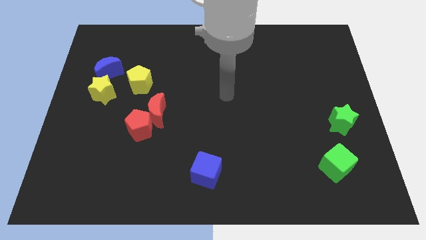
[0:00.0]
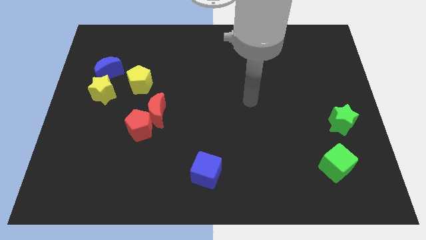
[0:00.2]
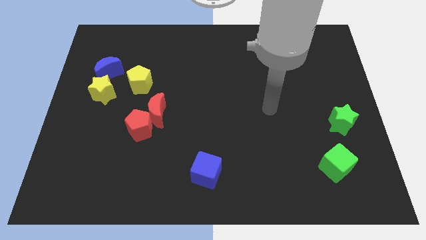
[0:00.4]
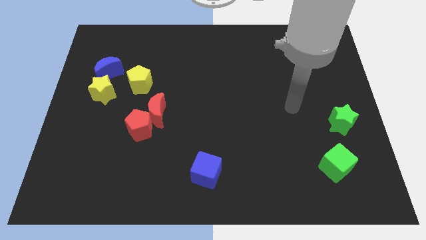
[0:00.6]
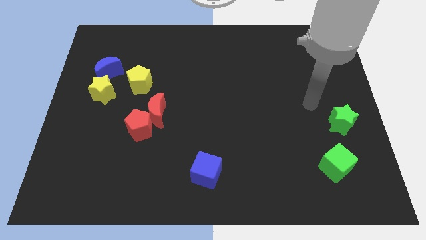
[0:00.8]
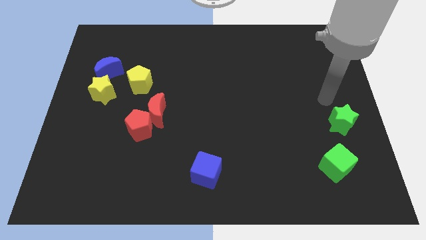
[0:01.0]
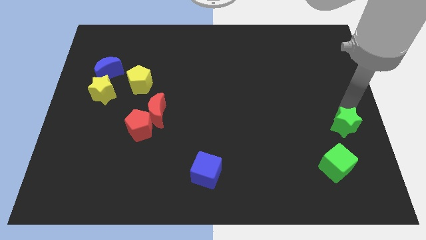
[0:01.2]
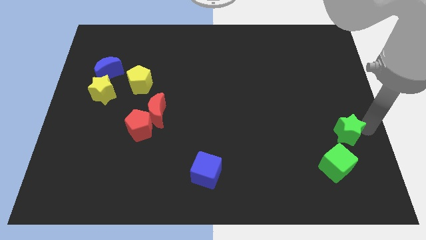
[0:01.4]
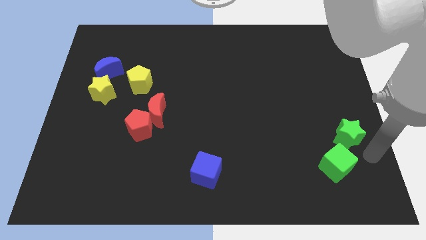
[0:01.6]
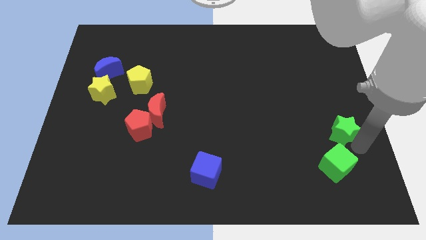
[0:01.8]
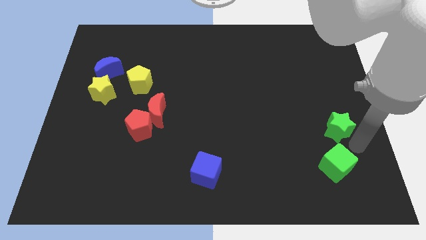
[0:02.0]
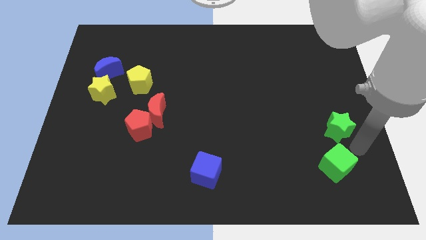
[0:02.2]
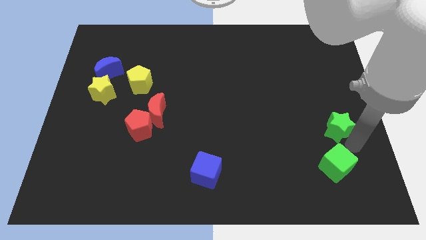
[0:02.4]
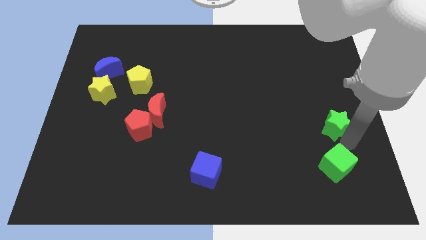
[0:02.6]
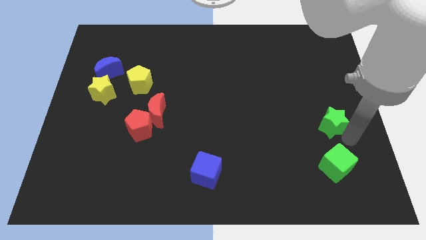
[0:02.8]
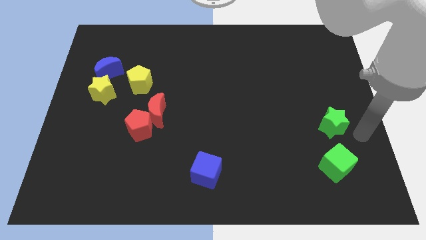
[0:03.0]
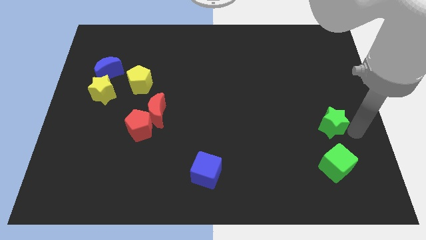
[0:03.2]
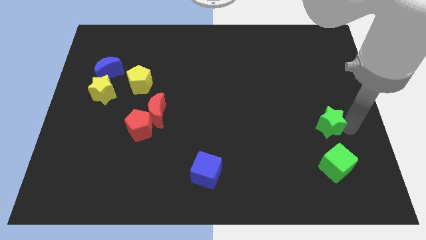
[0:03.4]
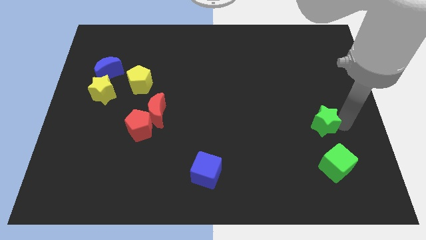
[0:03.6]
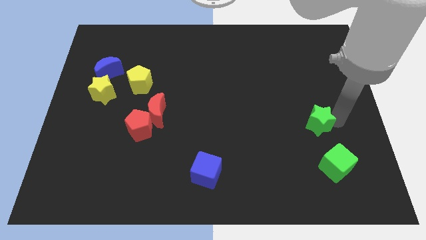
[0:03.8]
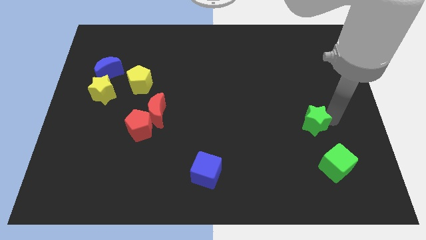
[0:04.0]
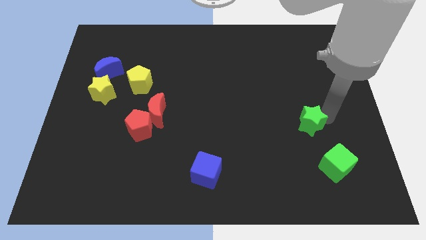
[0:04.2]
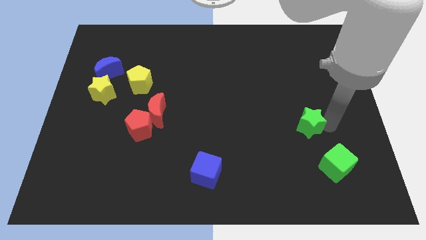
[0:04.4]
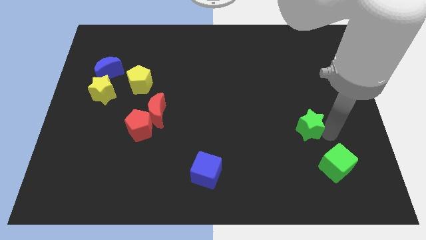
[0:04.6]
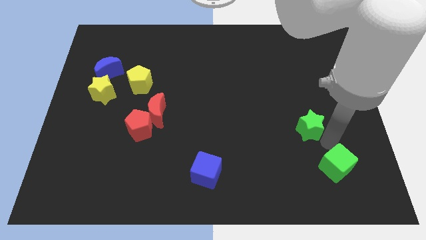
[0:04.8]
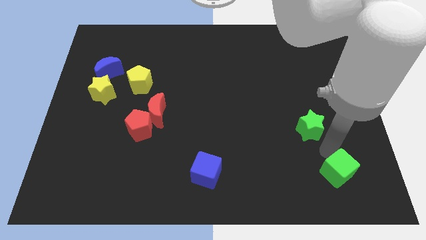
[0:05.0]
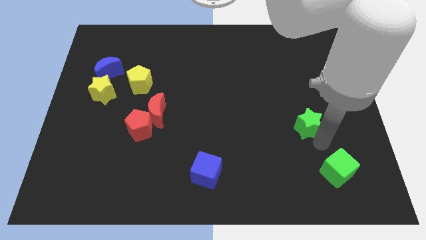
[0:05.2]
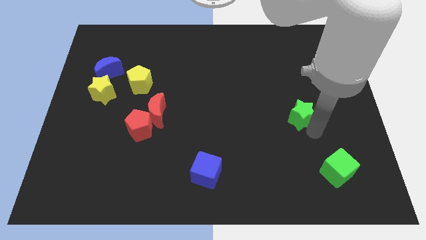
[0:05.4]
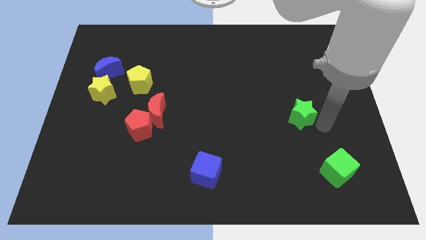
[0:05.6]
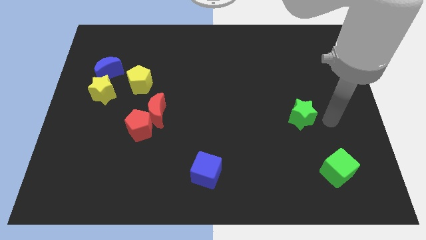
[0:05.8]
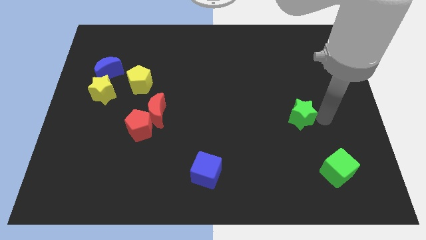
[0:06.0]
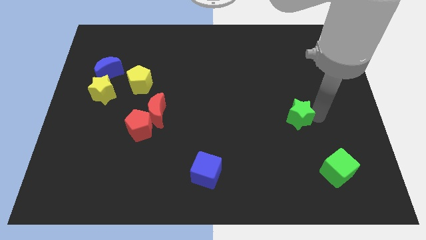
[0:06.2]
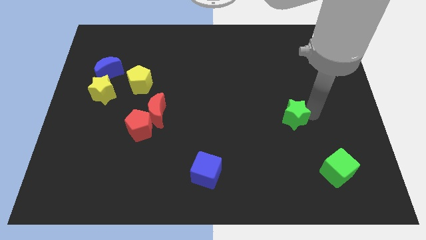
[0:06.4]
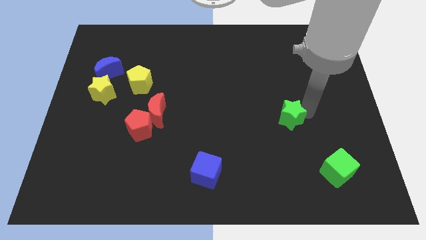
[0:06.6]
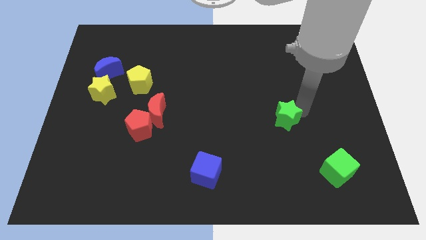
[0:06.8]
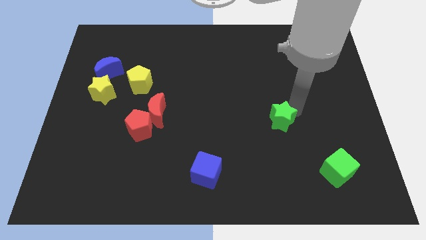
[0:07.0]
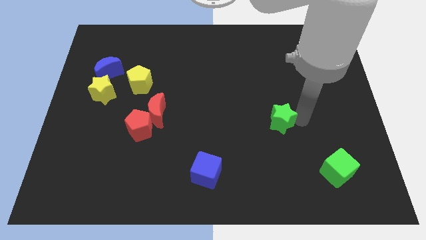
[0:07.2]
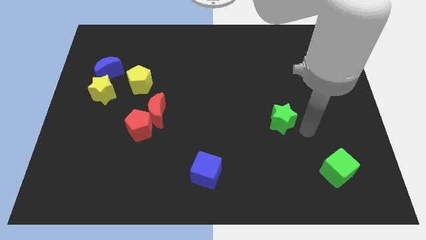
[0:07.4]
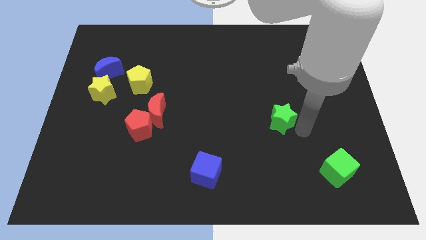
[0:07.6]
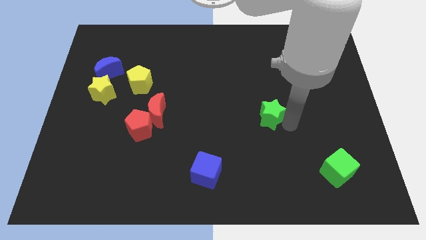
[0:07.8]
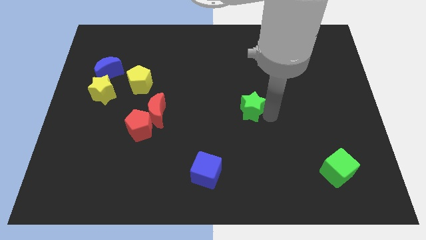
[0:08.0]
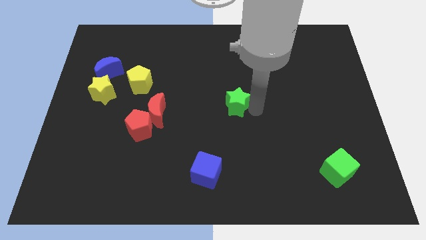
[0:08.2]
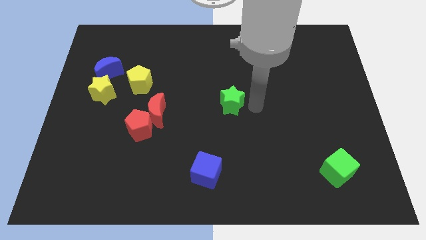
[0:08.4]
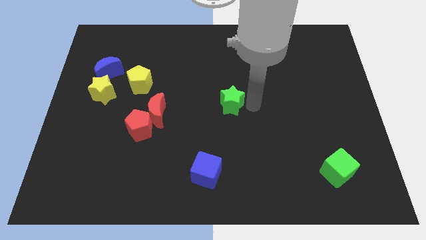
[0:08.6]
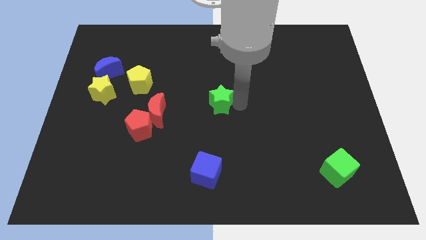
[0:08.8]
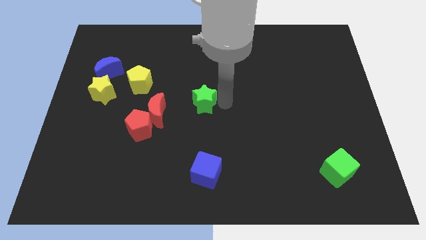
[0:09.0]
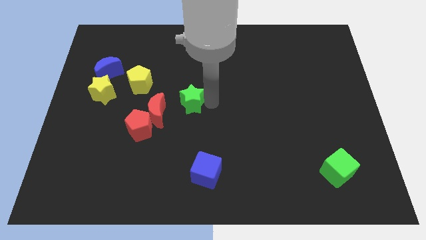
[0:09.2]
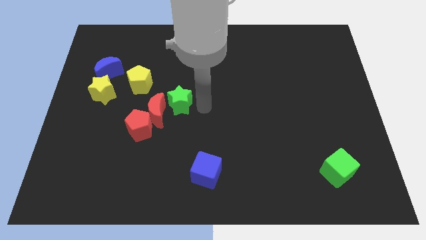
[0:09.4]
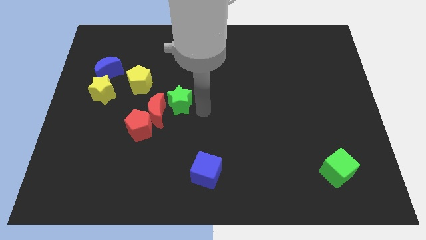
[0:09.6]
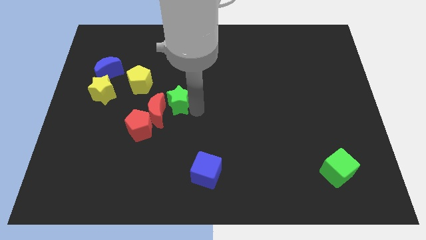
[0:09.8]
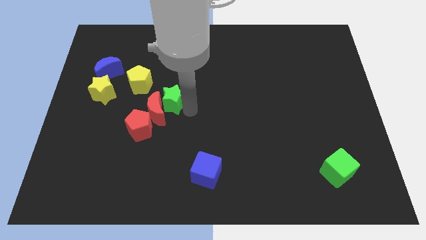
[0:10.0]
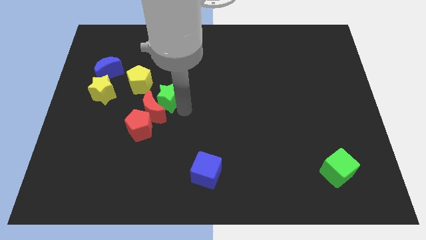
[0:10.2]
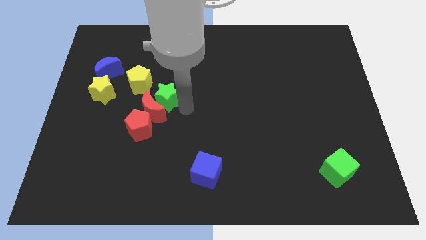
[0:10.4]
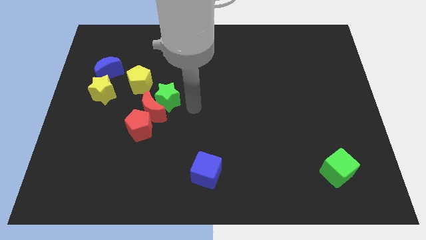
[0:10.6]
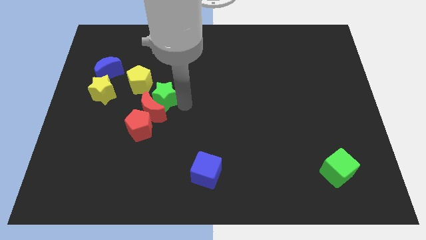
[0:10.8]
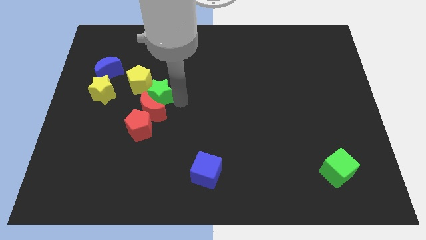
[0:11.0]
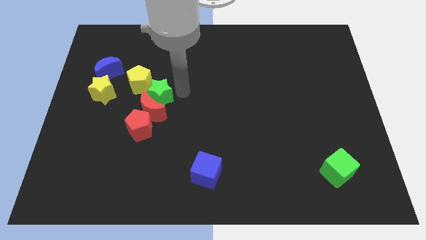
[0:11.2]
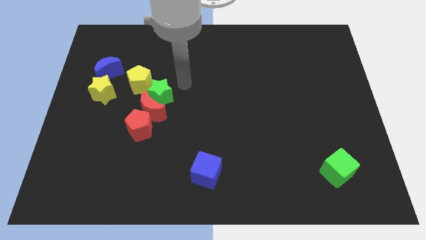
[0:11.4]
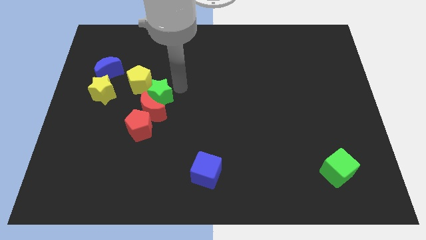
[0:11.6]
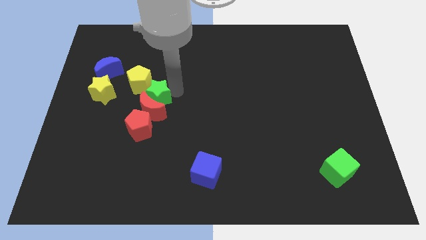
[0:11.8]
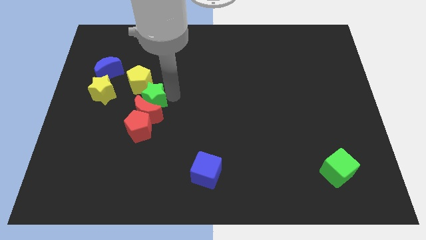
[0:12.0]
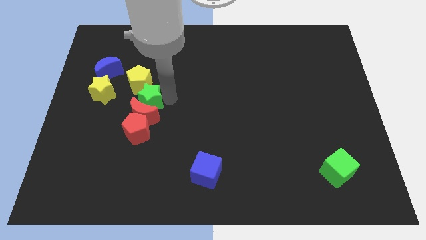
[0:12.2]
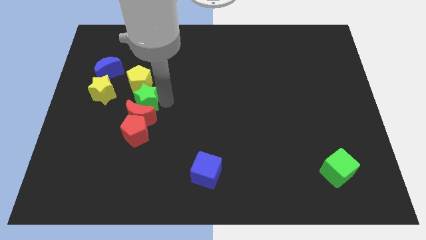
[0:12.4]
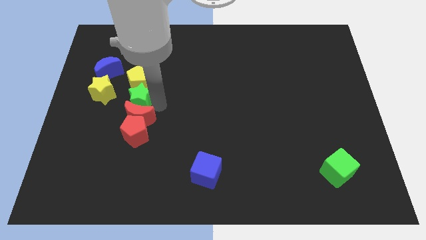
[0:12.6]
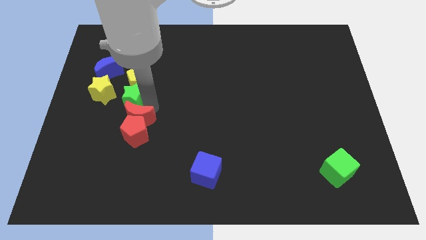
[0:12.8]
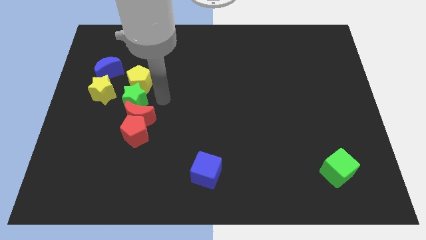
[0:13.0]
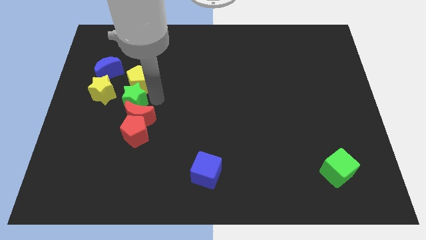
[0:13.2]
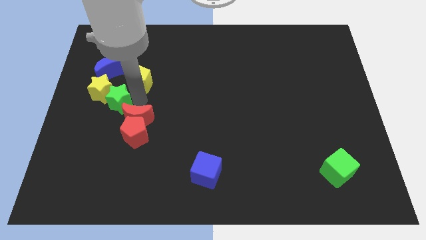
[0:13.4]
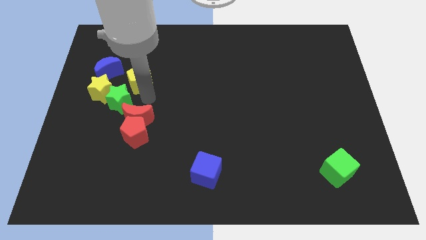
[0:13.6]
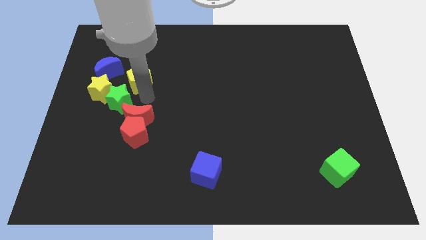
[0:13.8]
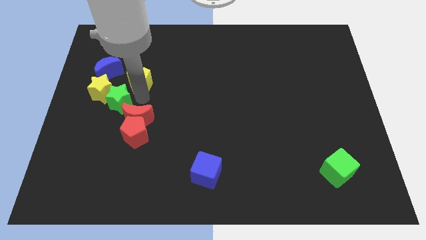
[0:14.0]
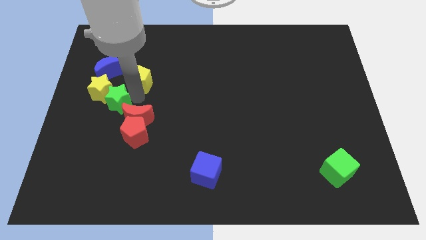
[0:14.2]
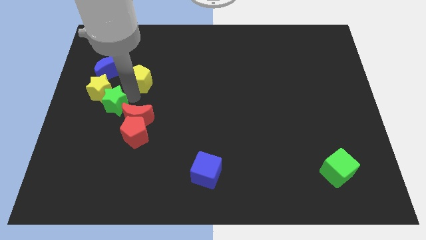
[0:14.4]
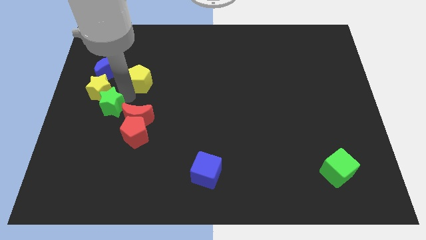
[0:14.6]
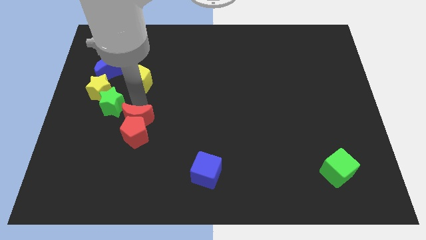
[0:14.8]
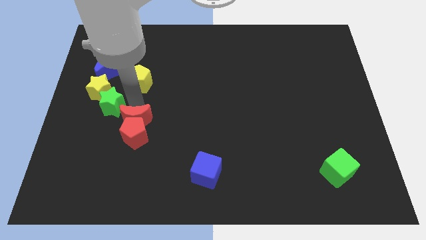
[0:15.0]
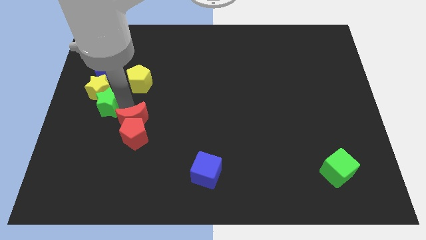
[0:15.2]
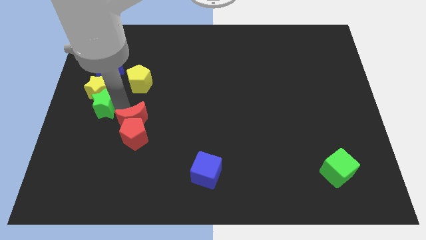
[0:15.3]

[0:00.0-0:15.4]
slide the green star to the left side
